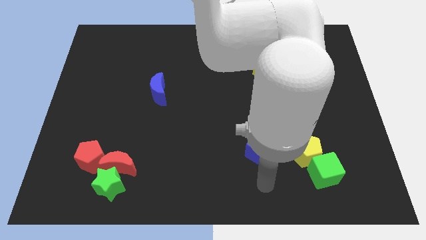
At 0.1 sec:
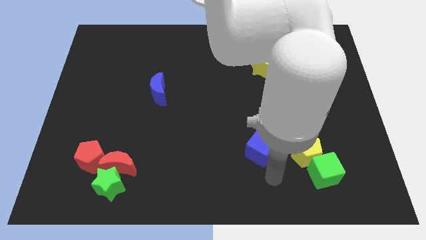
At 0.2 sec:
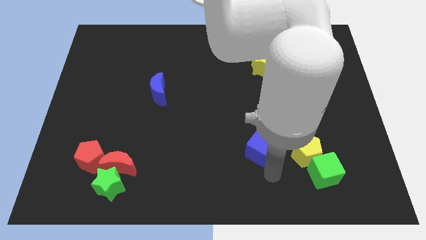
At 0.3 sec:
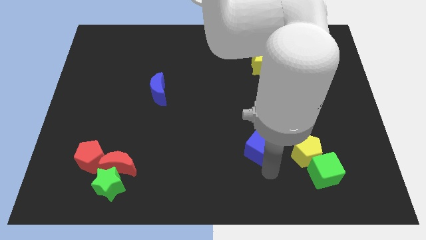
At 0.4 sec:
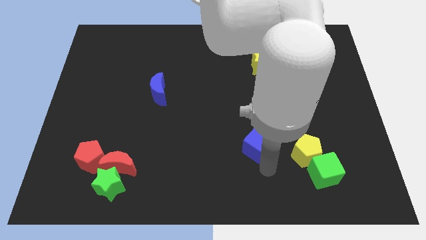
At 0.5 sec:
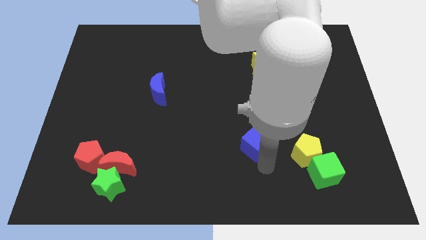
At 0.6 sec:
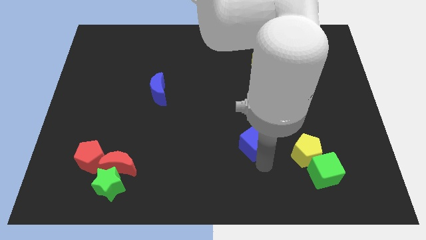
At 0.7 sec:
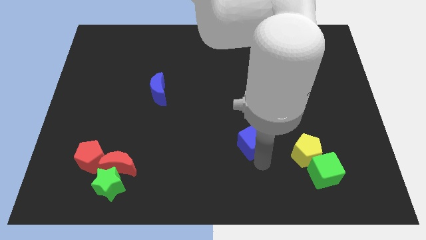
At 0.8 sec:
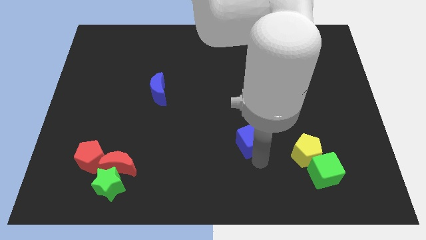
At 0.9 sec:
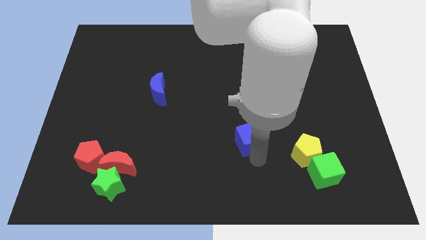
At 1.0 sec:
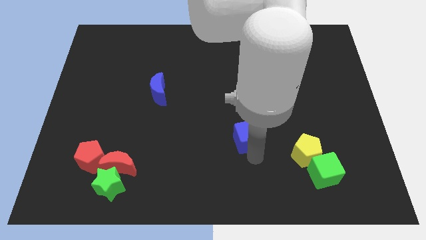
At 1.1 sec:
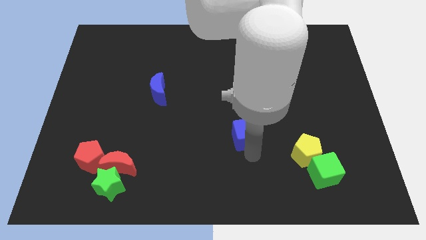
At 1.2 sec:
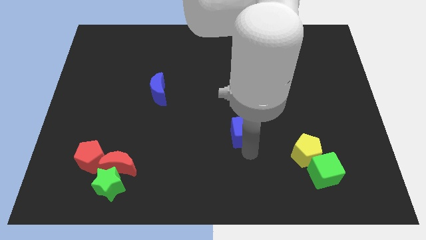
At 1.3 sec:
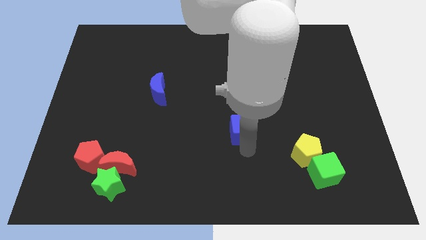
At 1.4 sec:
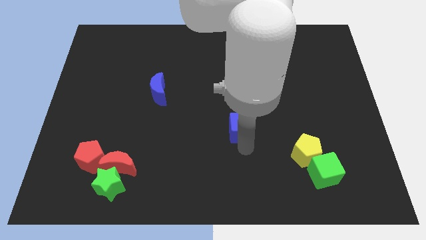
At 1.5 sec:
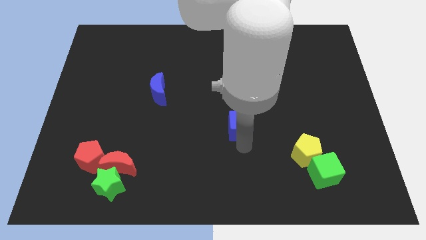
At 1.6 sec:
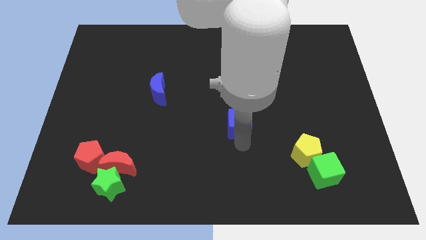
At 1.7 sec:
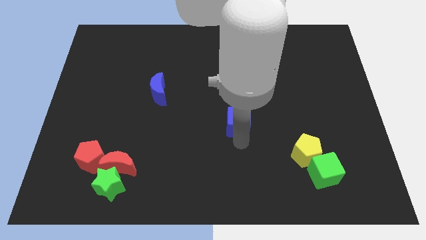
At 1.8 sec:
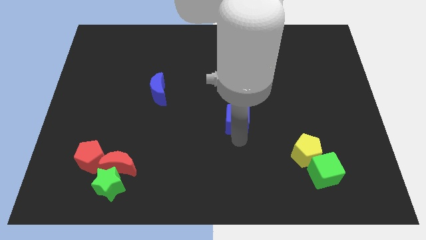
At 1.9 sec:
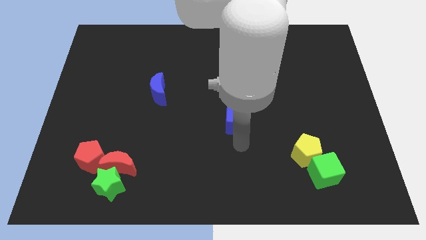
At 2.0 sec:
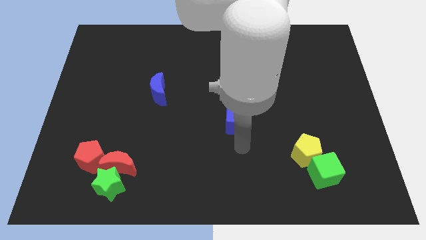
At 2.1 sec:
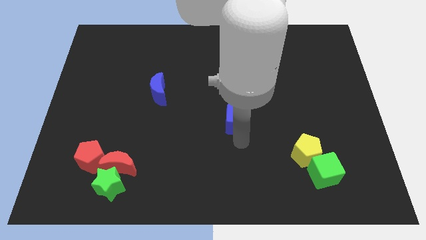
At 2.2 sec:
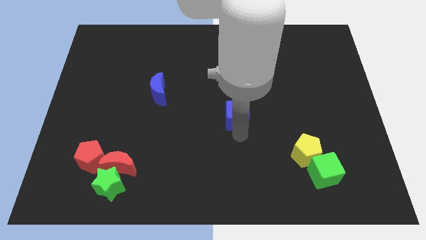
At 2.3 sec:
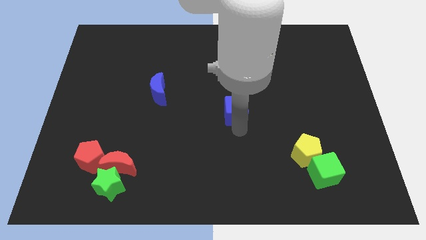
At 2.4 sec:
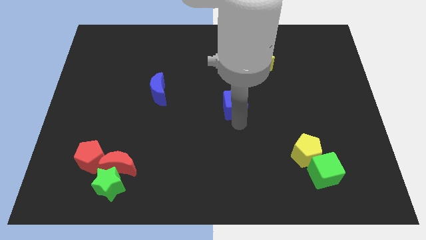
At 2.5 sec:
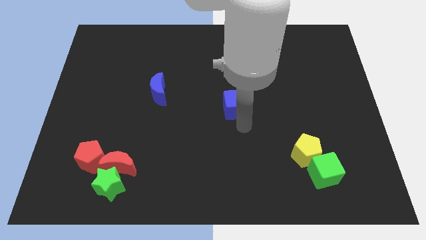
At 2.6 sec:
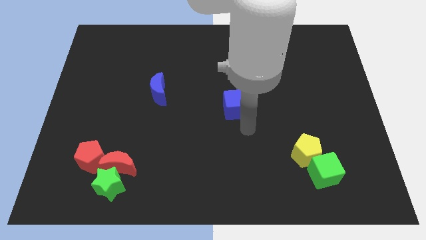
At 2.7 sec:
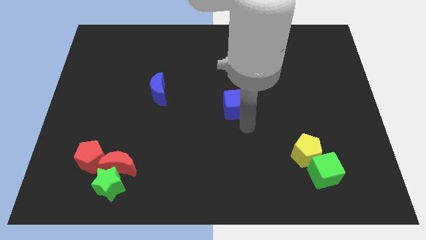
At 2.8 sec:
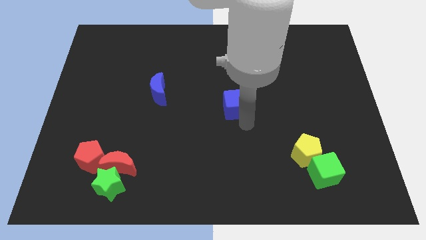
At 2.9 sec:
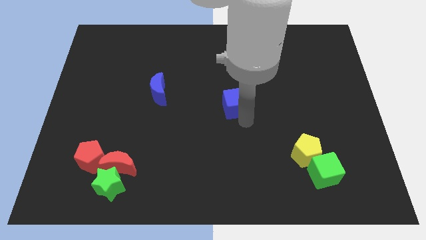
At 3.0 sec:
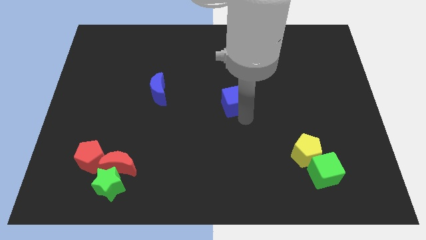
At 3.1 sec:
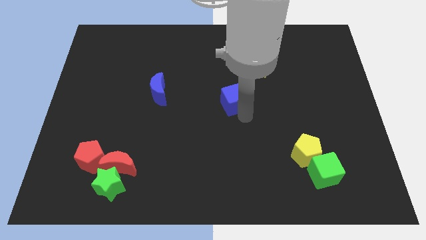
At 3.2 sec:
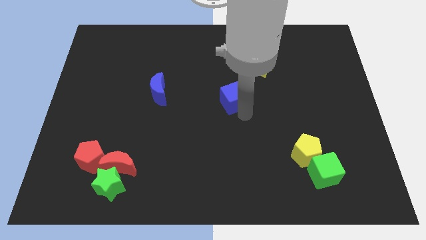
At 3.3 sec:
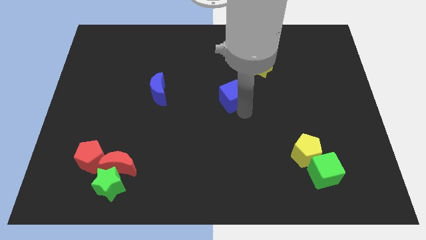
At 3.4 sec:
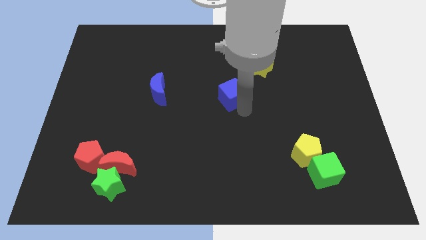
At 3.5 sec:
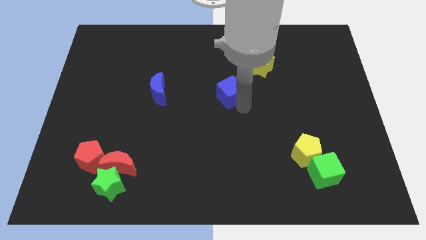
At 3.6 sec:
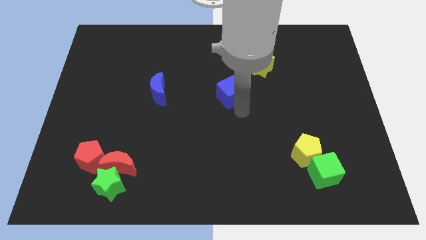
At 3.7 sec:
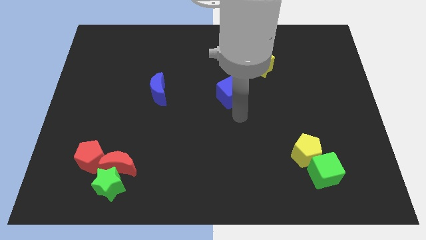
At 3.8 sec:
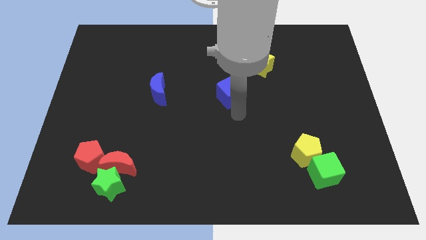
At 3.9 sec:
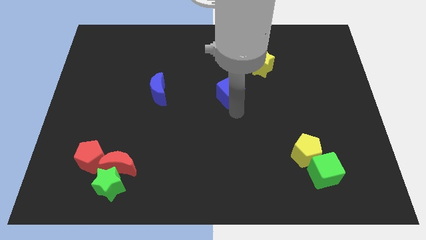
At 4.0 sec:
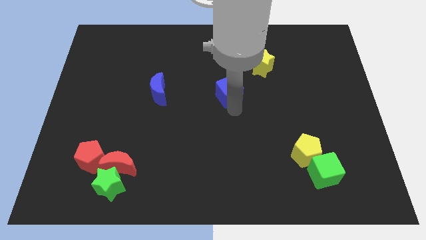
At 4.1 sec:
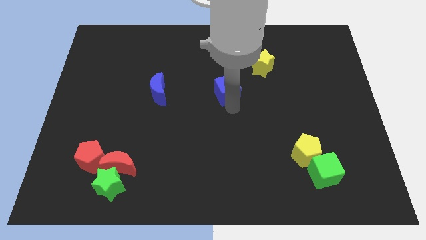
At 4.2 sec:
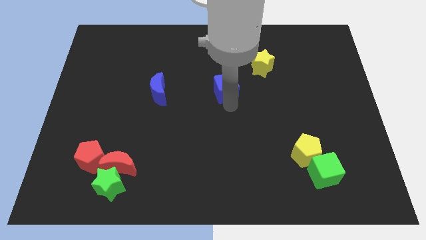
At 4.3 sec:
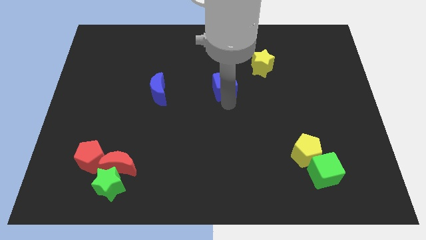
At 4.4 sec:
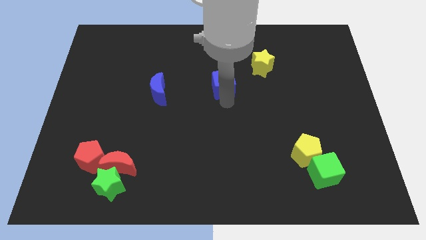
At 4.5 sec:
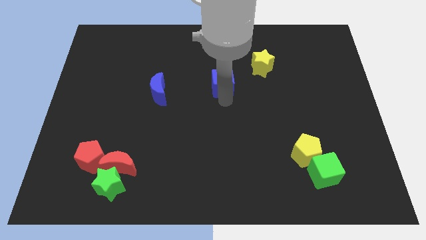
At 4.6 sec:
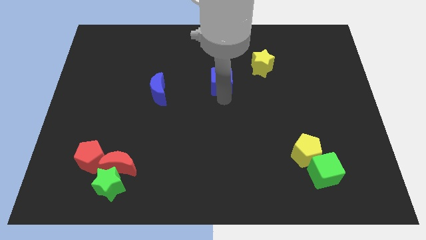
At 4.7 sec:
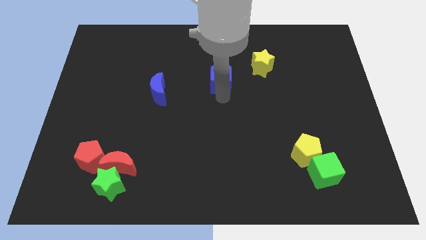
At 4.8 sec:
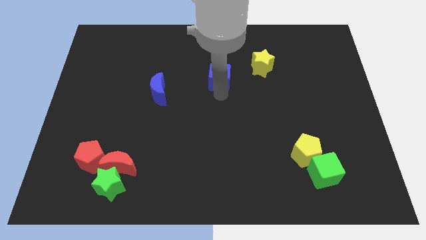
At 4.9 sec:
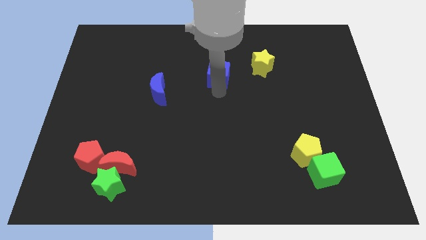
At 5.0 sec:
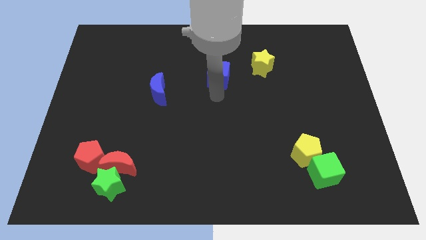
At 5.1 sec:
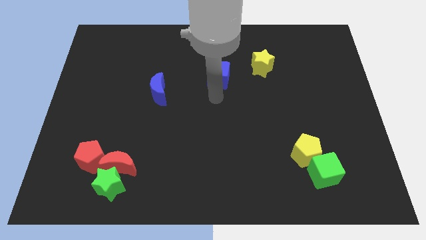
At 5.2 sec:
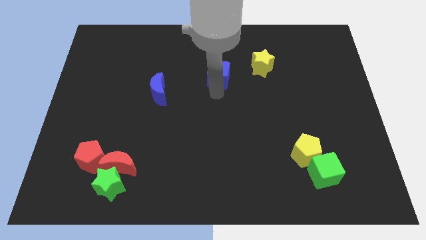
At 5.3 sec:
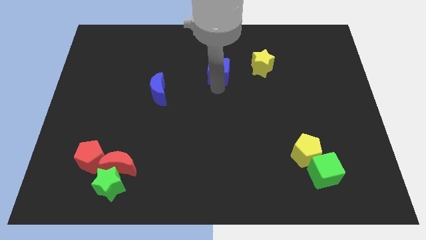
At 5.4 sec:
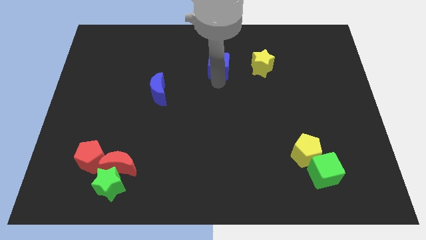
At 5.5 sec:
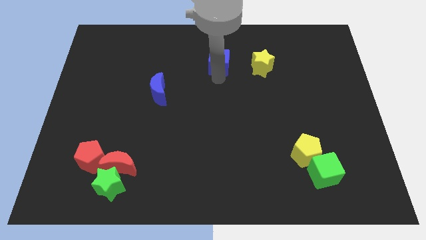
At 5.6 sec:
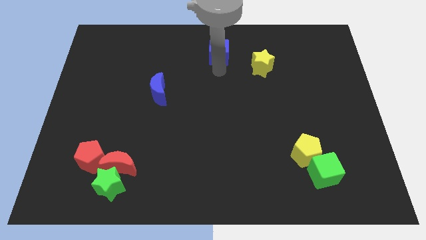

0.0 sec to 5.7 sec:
put the blue cube to the top side

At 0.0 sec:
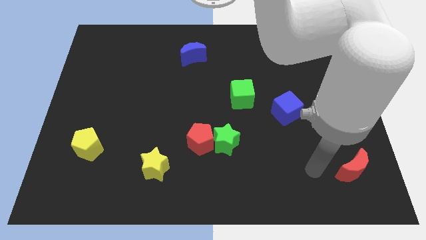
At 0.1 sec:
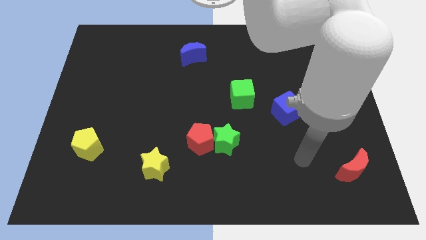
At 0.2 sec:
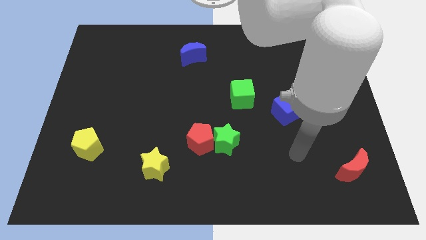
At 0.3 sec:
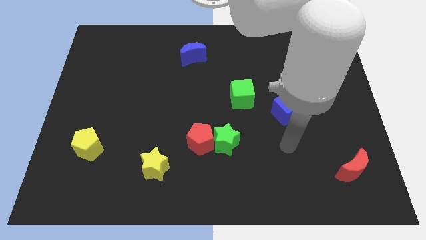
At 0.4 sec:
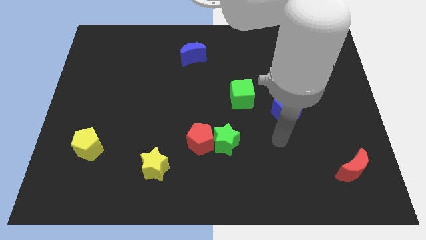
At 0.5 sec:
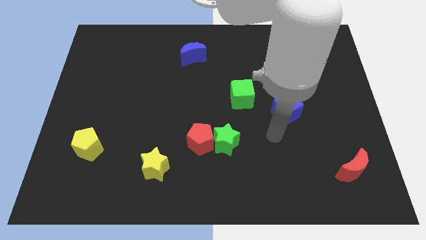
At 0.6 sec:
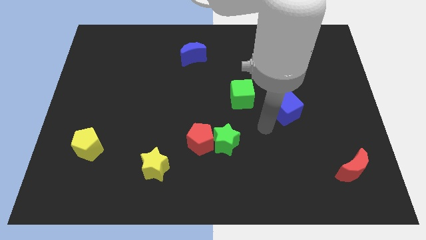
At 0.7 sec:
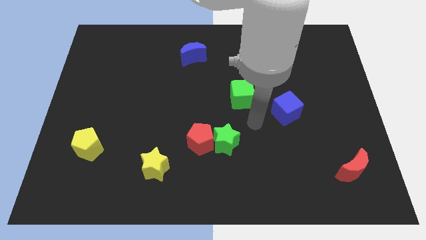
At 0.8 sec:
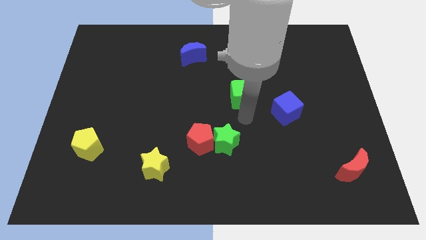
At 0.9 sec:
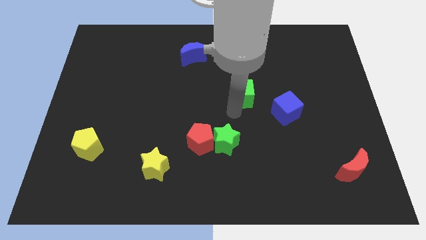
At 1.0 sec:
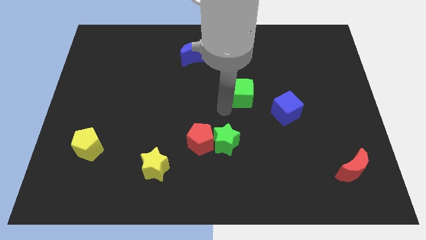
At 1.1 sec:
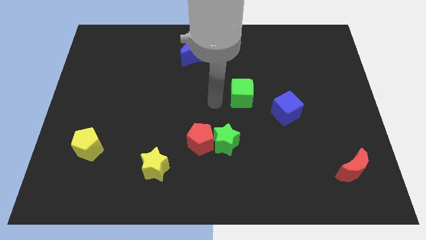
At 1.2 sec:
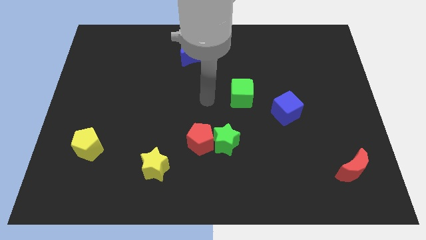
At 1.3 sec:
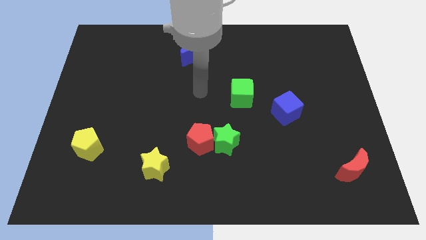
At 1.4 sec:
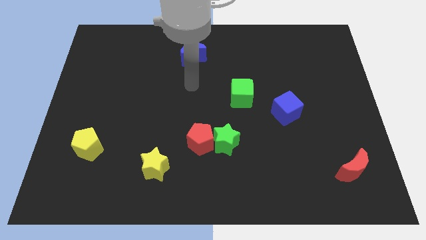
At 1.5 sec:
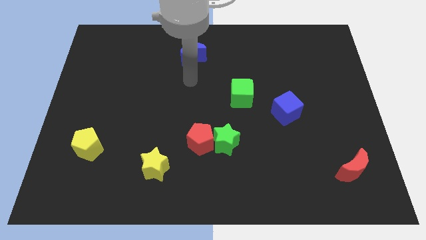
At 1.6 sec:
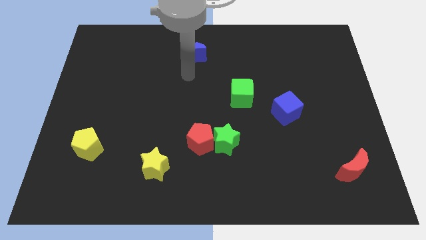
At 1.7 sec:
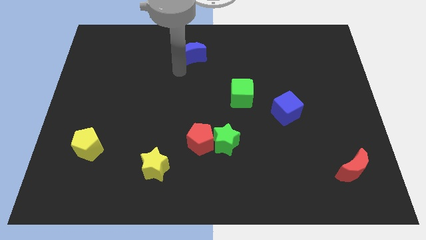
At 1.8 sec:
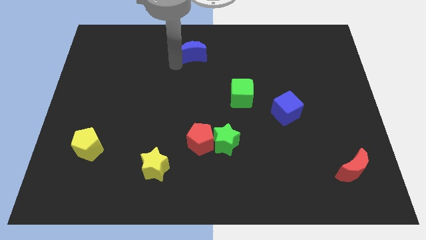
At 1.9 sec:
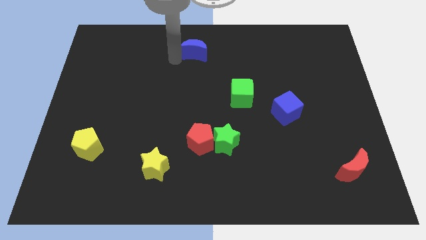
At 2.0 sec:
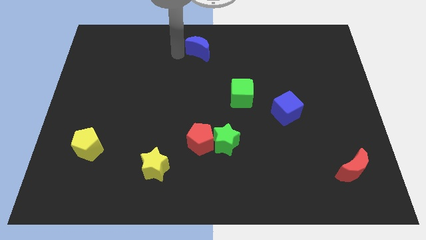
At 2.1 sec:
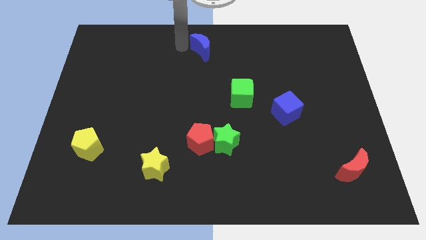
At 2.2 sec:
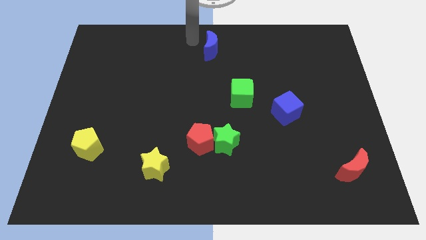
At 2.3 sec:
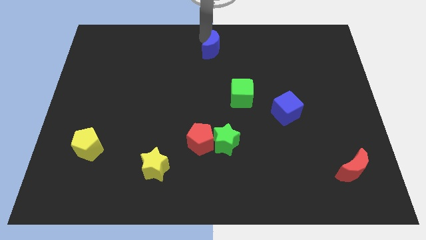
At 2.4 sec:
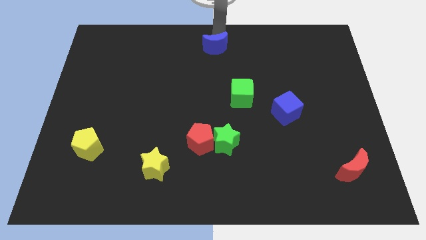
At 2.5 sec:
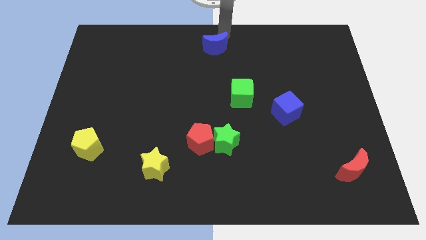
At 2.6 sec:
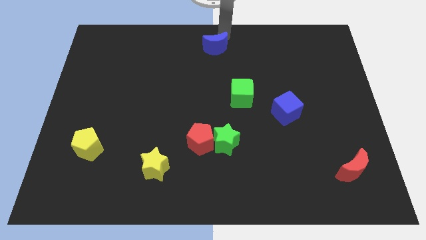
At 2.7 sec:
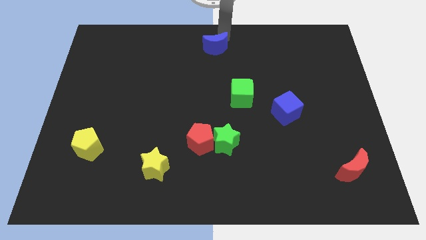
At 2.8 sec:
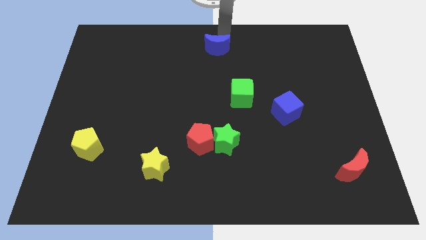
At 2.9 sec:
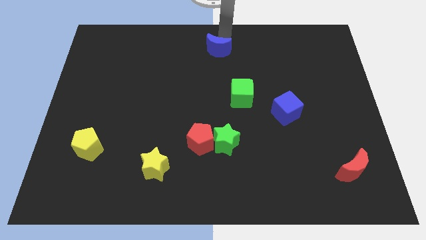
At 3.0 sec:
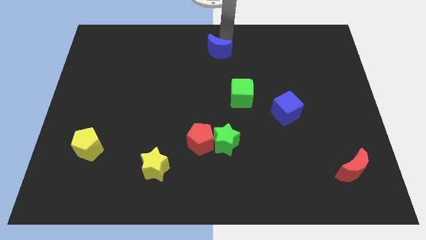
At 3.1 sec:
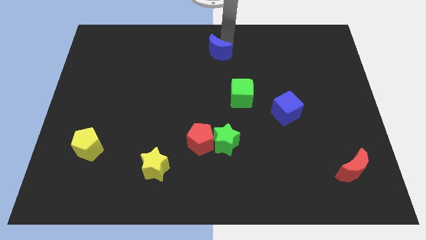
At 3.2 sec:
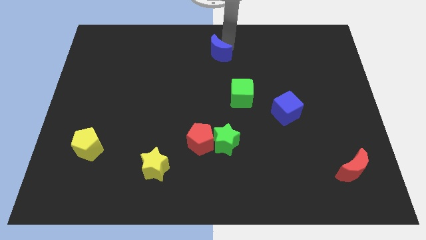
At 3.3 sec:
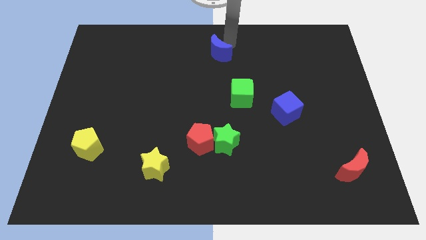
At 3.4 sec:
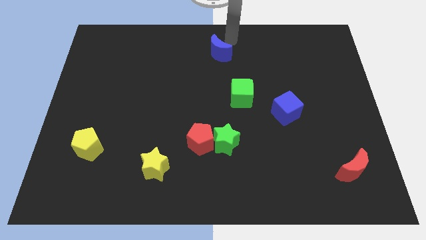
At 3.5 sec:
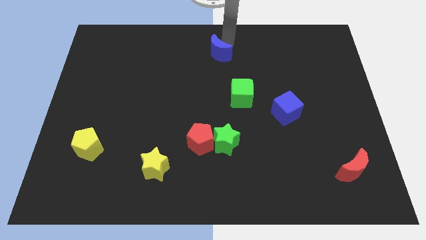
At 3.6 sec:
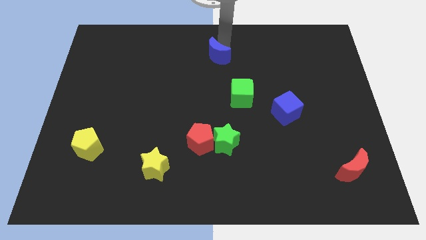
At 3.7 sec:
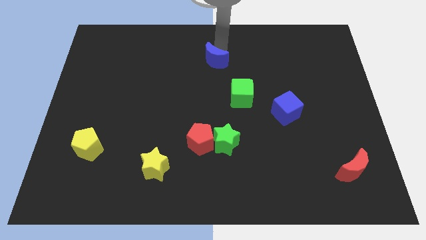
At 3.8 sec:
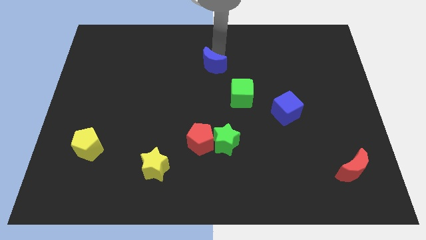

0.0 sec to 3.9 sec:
move the blue moon to the center
